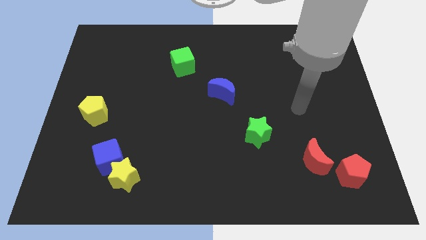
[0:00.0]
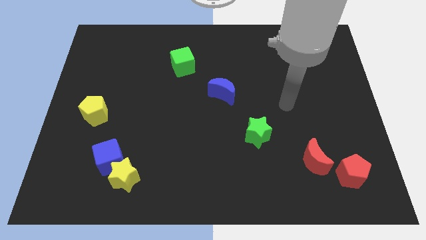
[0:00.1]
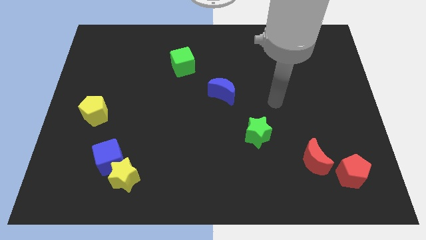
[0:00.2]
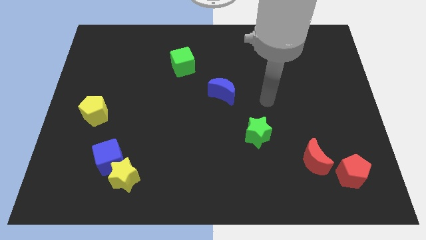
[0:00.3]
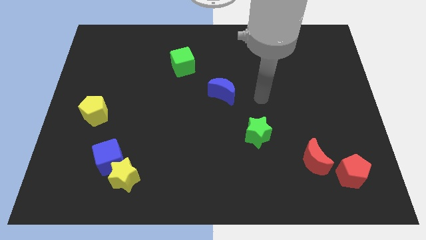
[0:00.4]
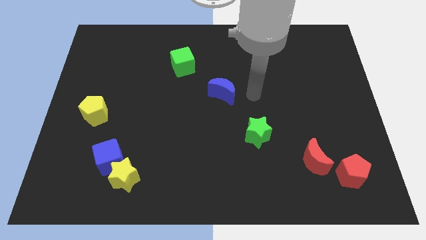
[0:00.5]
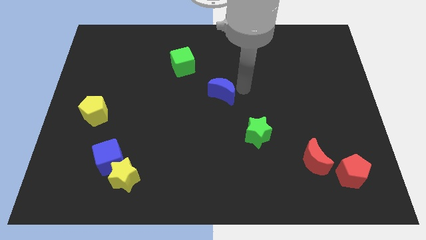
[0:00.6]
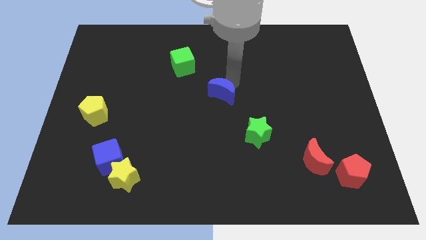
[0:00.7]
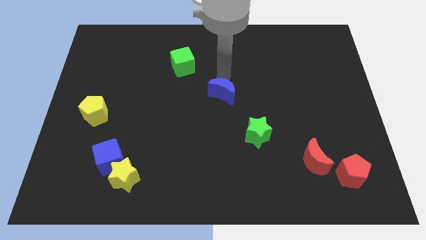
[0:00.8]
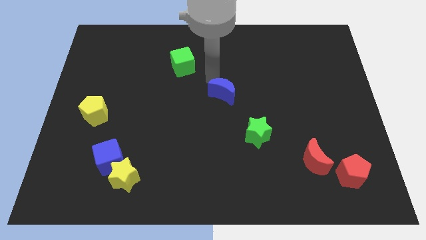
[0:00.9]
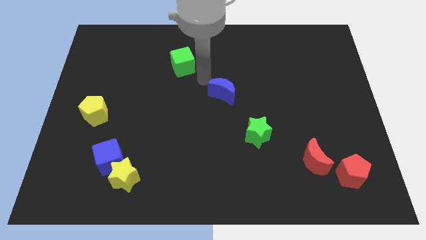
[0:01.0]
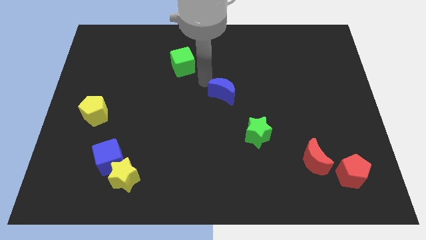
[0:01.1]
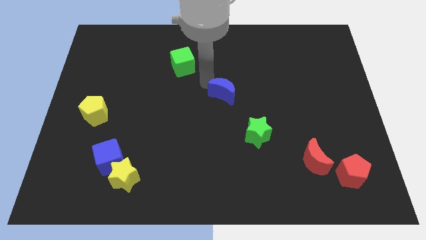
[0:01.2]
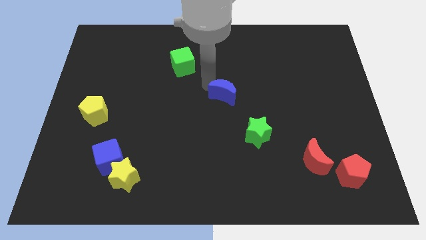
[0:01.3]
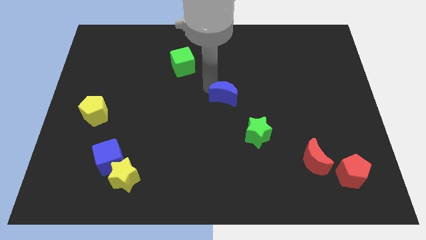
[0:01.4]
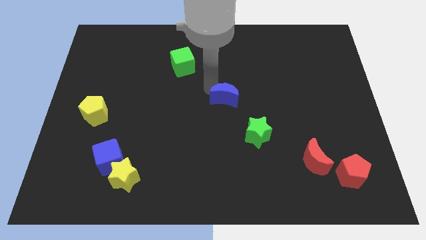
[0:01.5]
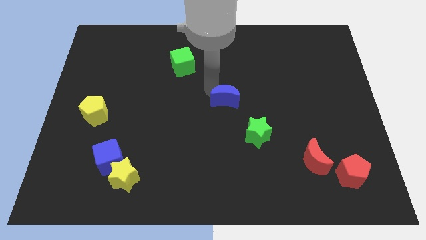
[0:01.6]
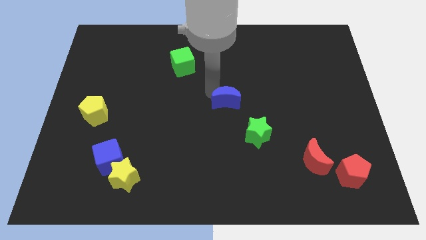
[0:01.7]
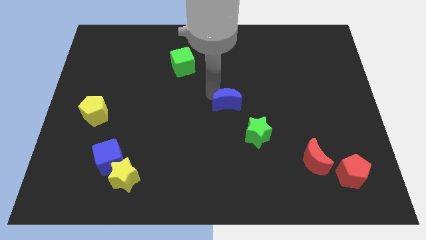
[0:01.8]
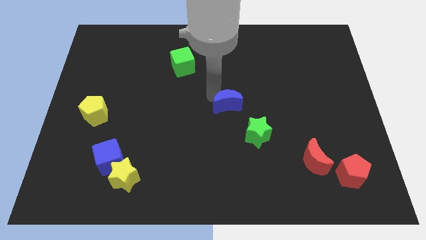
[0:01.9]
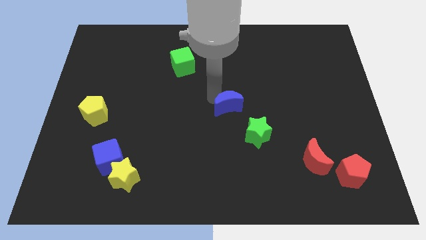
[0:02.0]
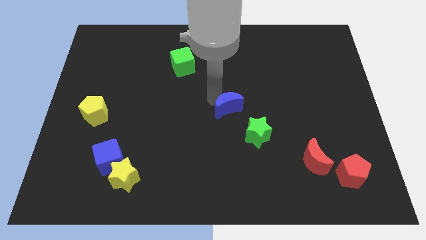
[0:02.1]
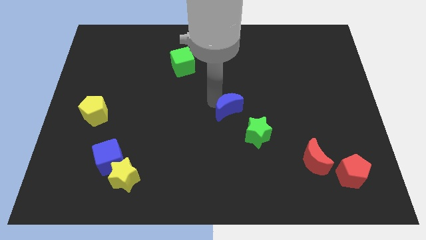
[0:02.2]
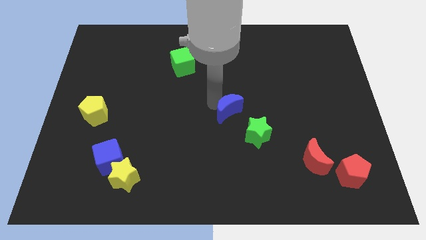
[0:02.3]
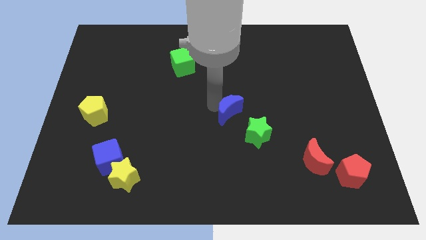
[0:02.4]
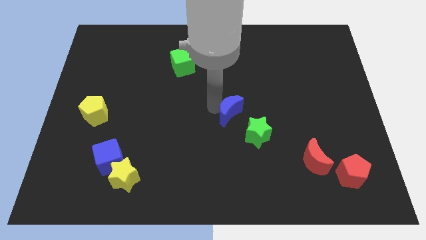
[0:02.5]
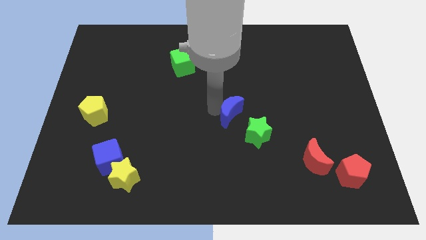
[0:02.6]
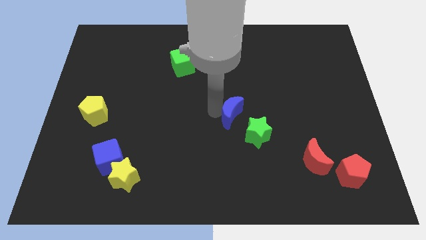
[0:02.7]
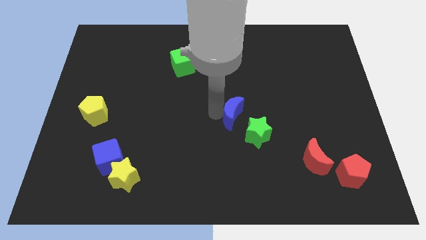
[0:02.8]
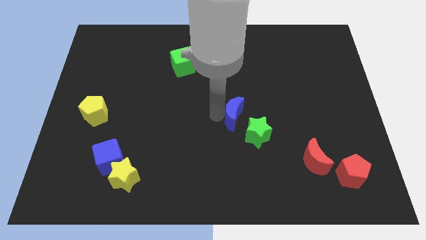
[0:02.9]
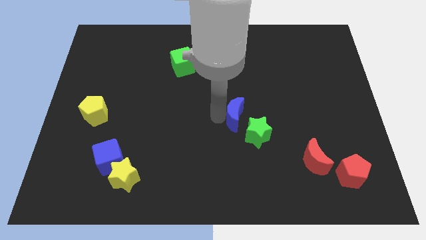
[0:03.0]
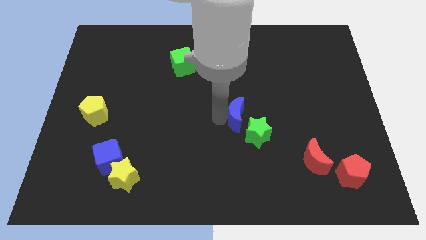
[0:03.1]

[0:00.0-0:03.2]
push the blue moon downwards and then right slightly

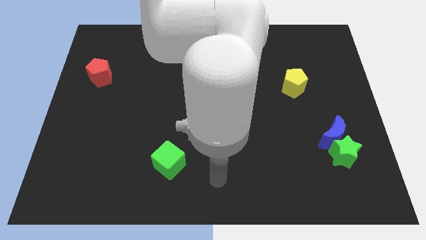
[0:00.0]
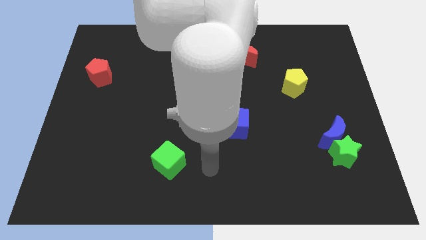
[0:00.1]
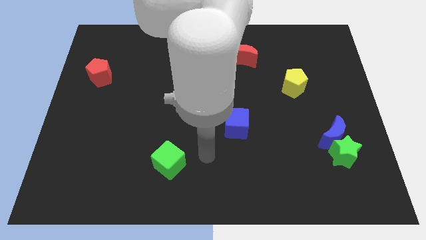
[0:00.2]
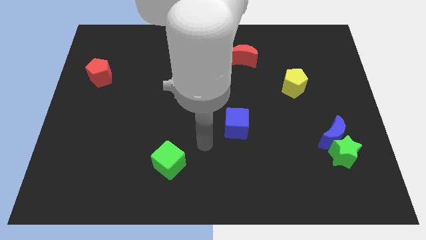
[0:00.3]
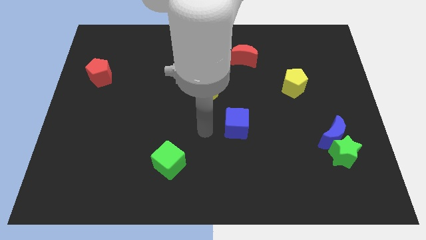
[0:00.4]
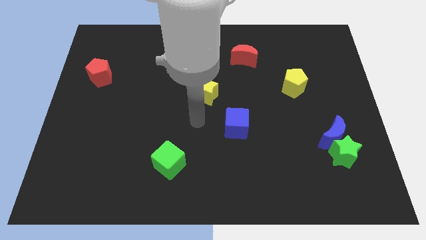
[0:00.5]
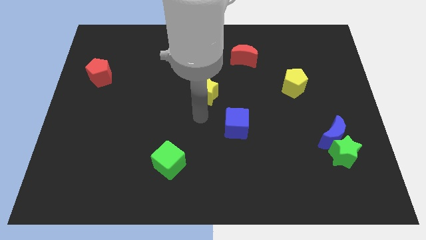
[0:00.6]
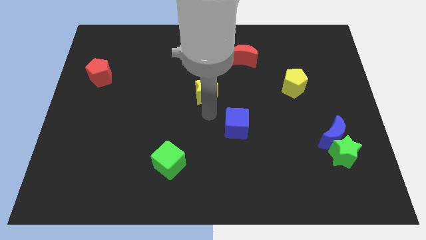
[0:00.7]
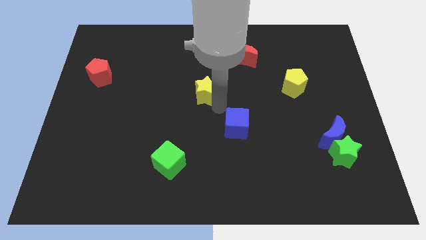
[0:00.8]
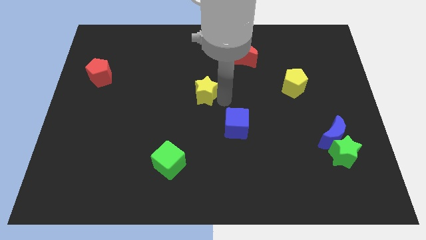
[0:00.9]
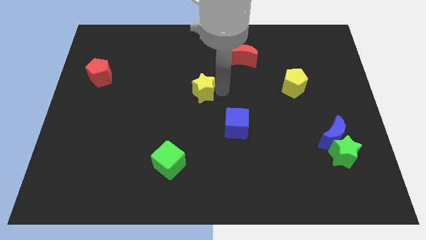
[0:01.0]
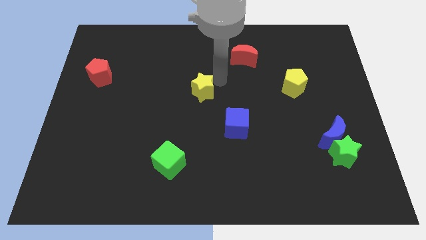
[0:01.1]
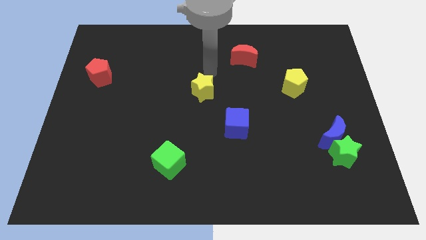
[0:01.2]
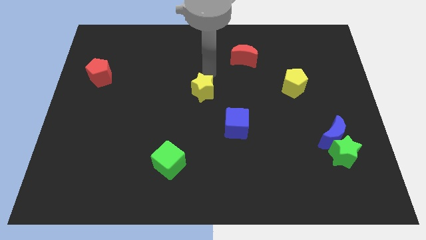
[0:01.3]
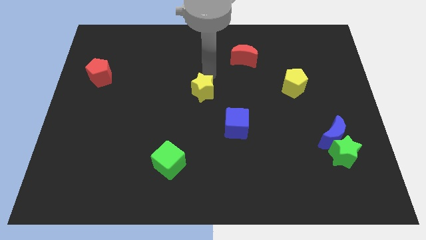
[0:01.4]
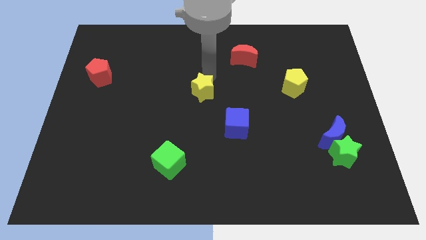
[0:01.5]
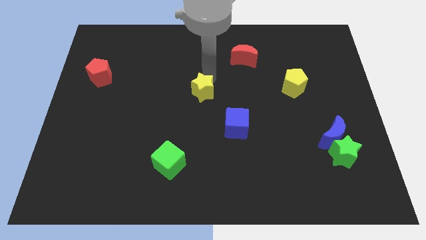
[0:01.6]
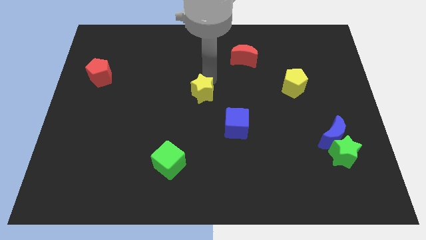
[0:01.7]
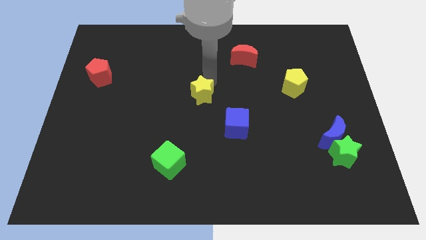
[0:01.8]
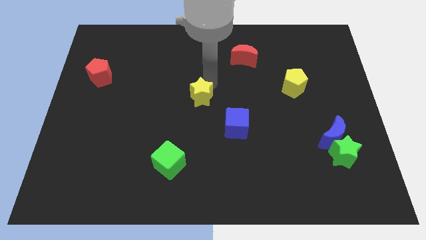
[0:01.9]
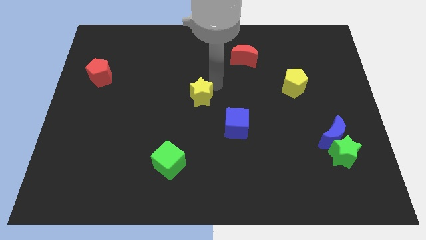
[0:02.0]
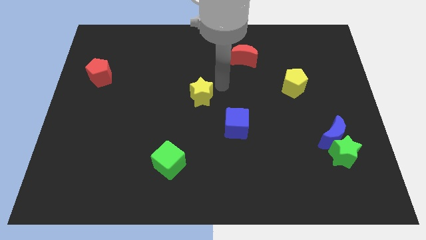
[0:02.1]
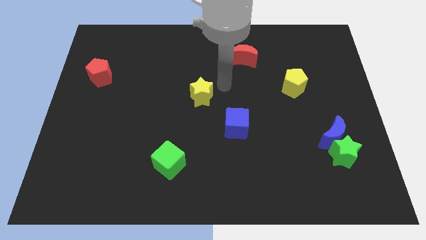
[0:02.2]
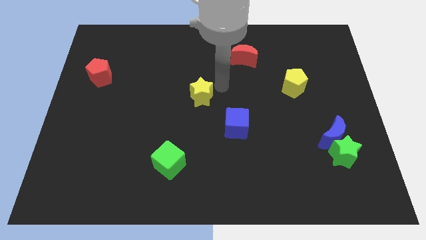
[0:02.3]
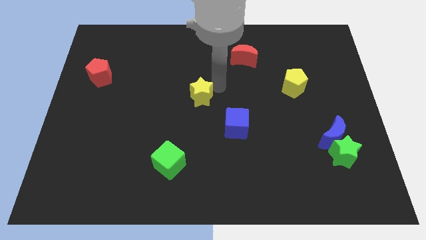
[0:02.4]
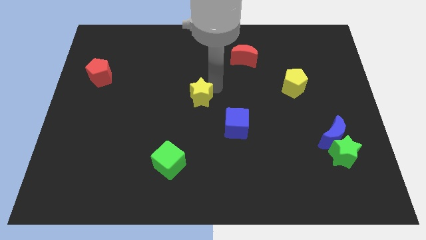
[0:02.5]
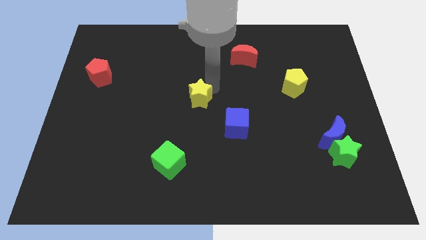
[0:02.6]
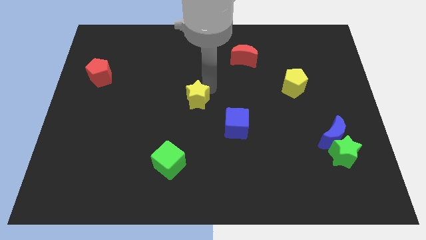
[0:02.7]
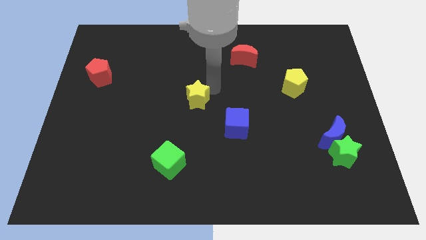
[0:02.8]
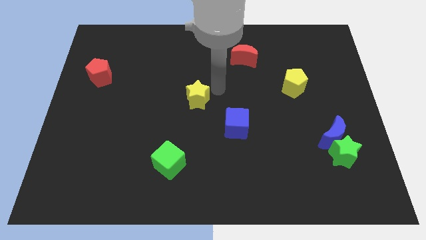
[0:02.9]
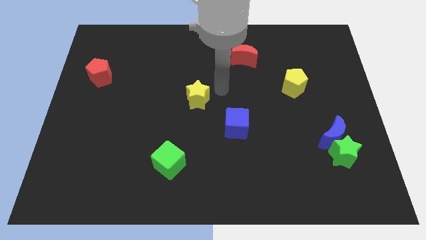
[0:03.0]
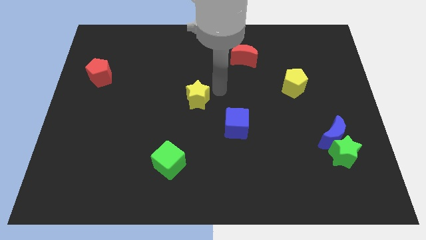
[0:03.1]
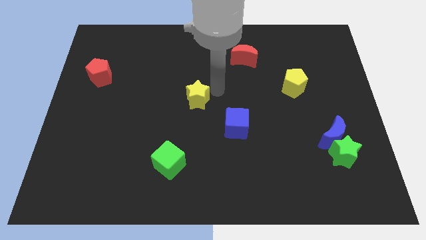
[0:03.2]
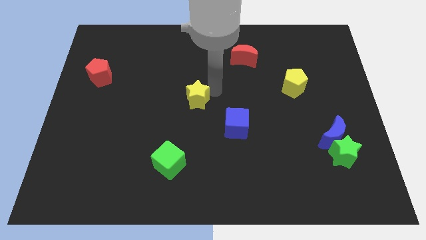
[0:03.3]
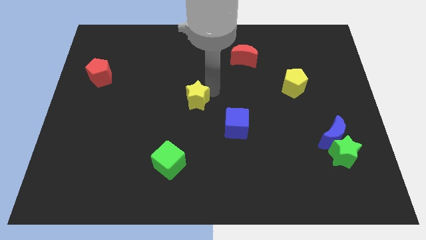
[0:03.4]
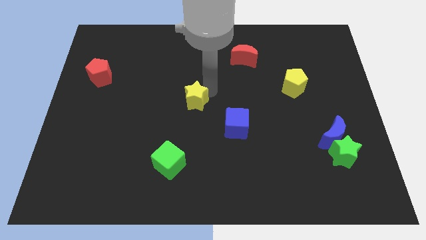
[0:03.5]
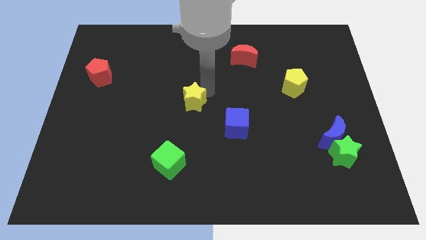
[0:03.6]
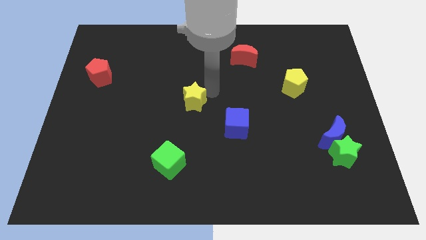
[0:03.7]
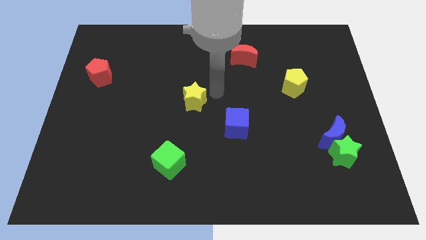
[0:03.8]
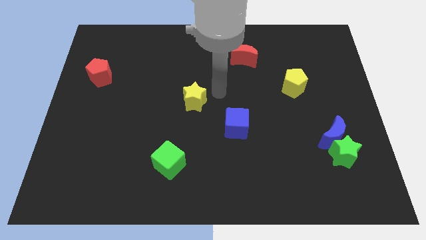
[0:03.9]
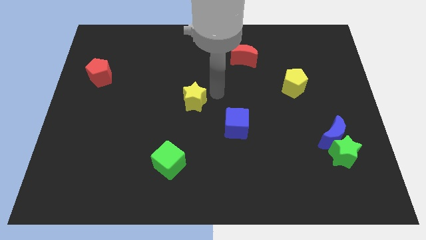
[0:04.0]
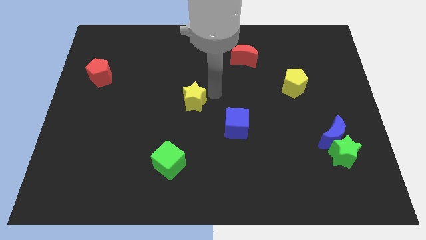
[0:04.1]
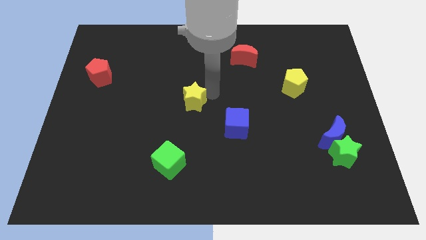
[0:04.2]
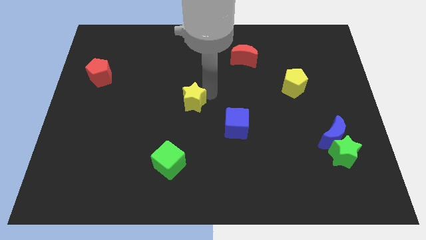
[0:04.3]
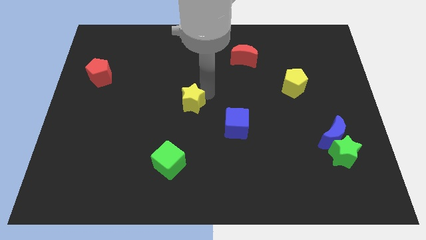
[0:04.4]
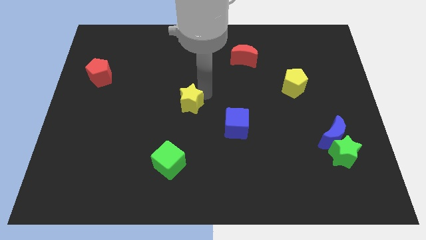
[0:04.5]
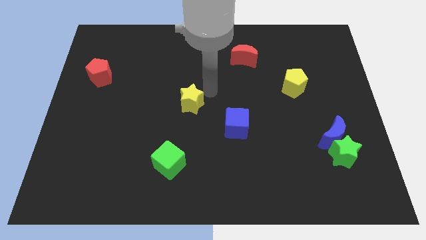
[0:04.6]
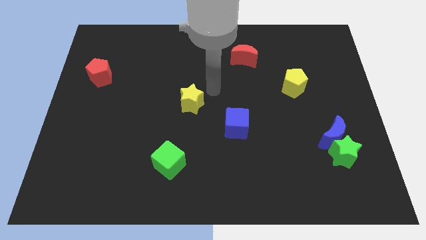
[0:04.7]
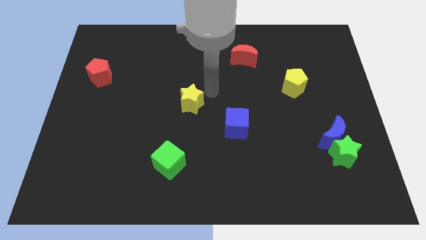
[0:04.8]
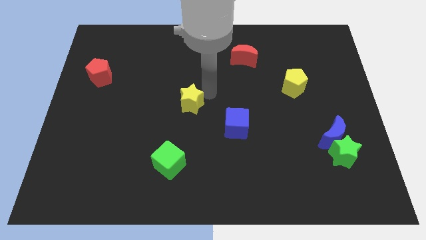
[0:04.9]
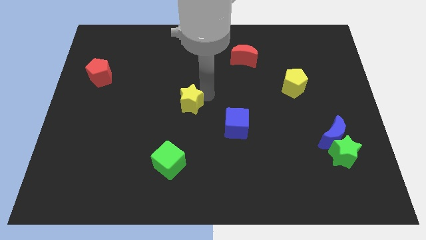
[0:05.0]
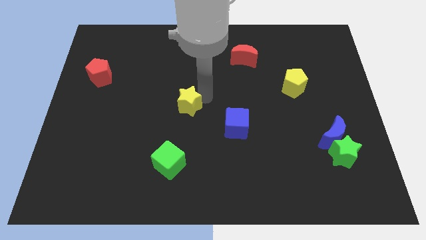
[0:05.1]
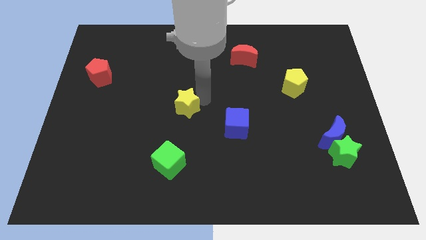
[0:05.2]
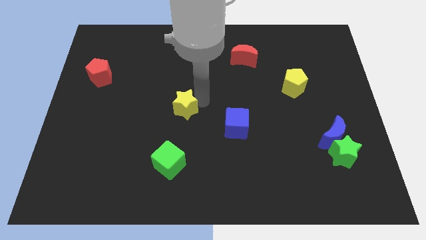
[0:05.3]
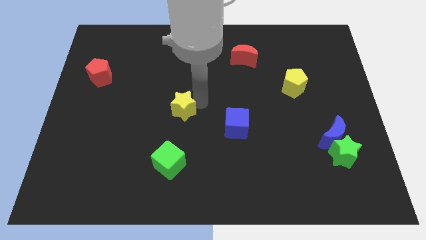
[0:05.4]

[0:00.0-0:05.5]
slightly move the yellow star down and then to the left
